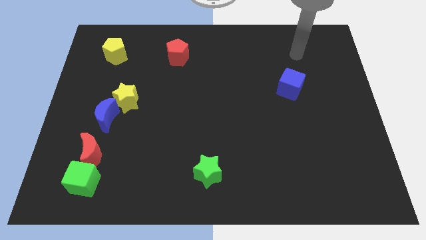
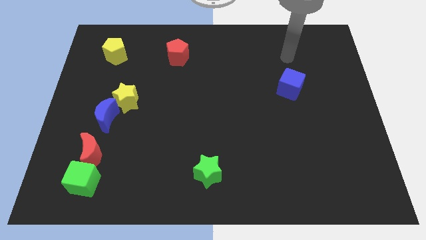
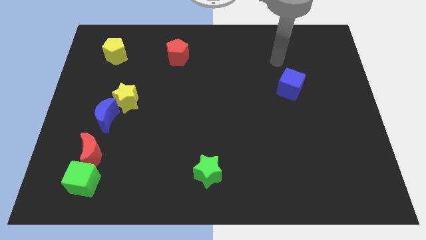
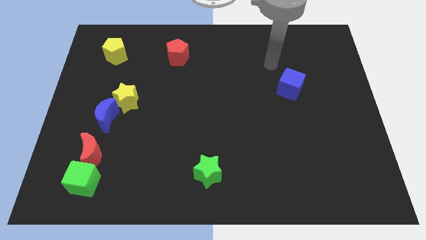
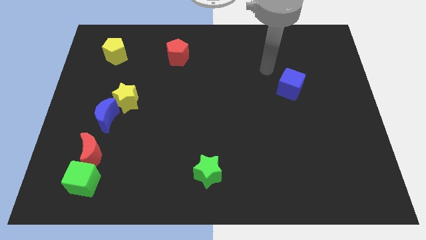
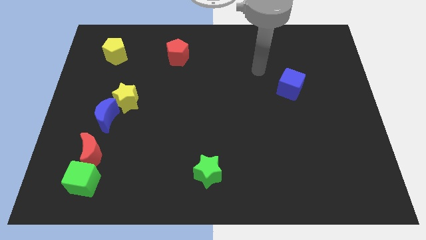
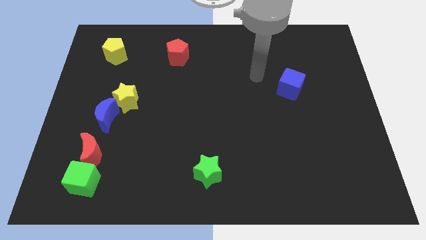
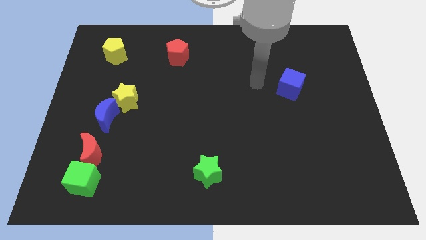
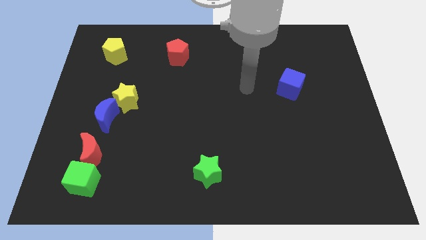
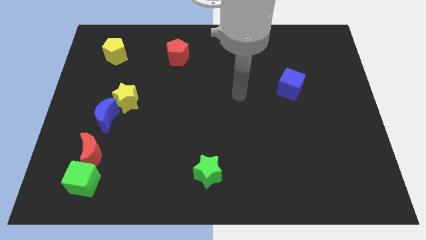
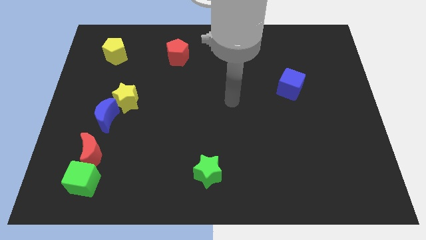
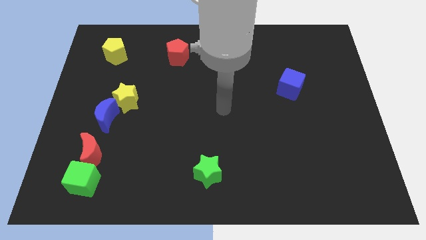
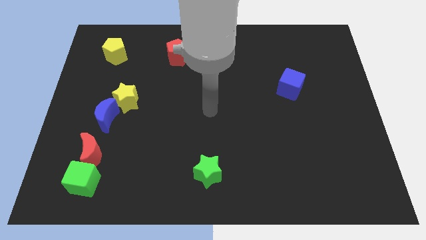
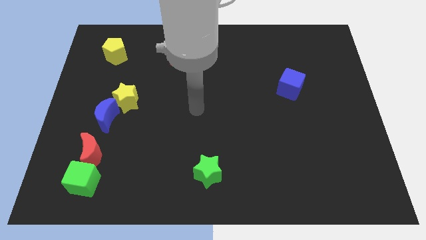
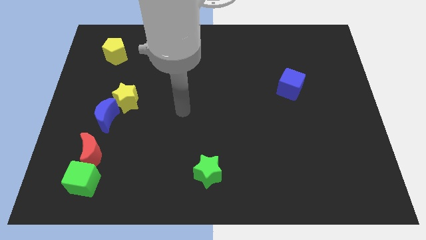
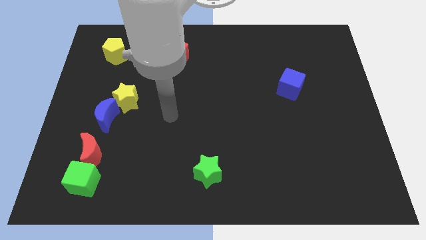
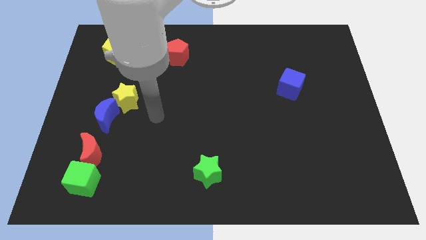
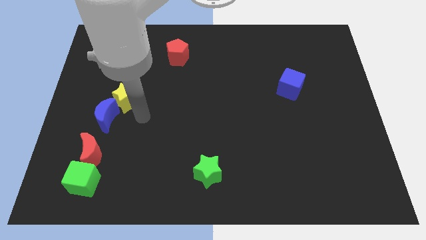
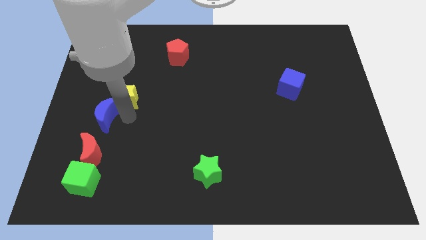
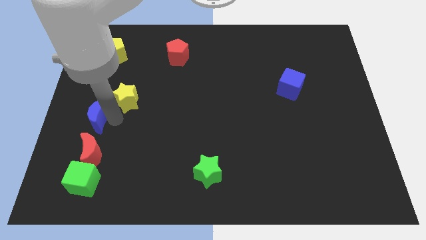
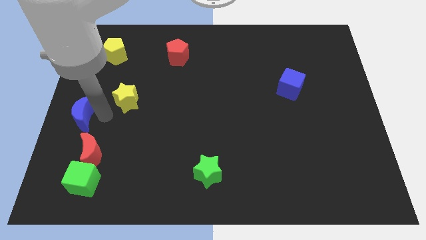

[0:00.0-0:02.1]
pull the yellow star apart from the blue moon

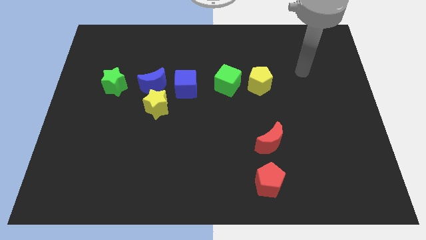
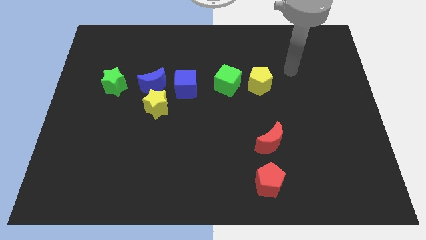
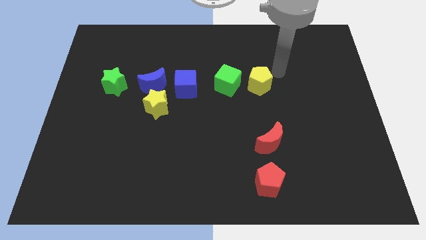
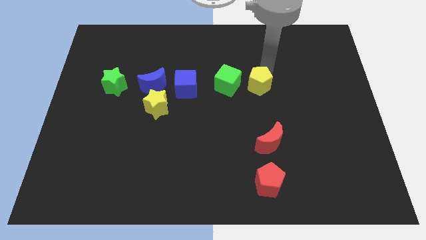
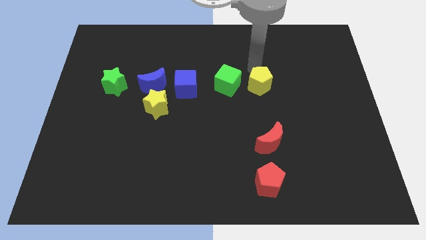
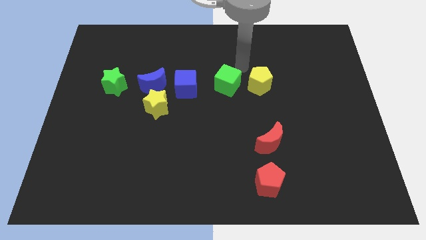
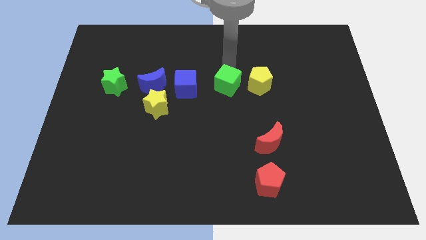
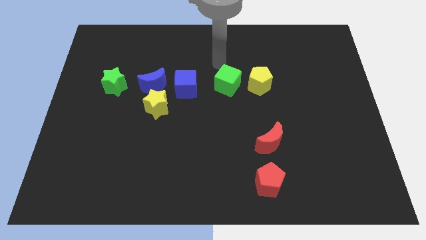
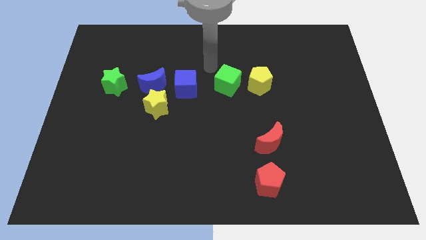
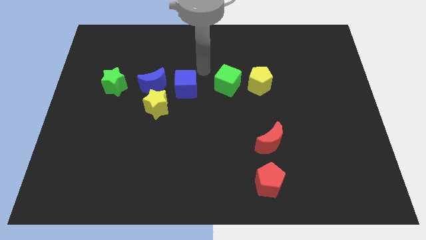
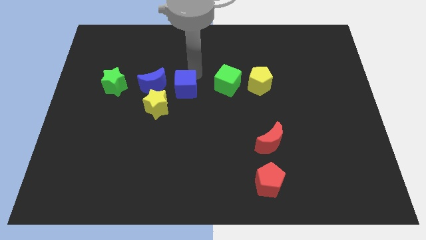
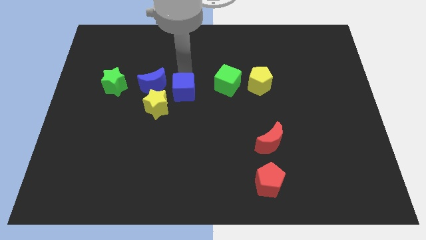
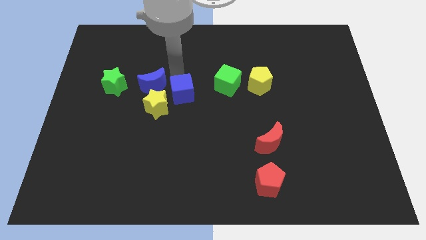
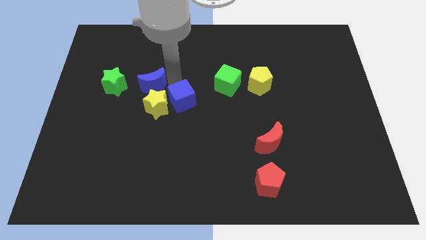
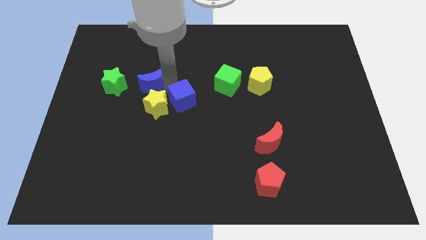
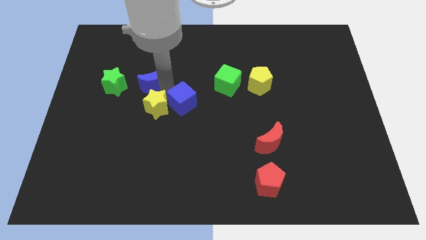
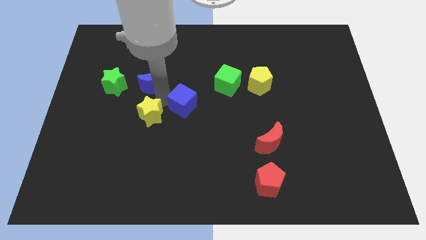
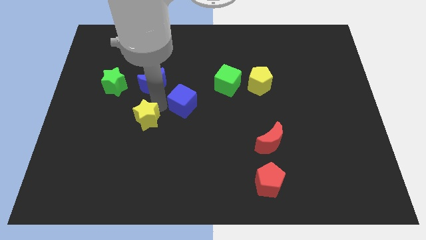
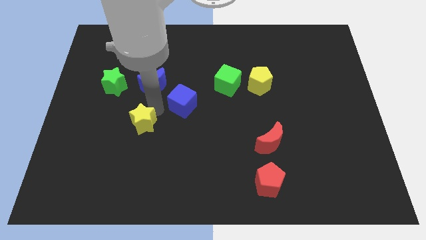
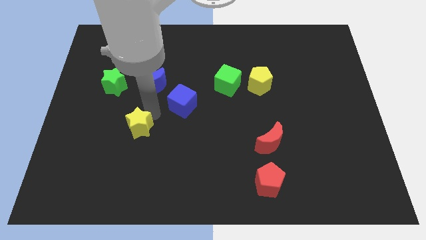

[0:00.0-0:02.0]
pull the yellow star apart from the blue moon and blue cube

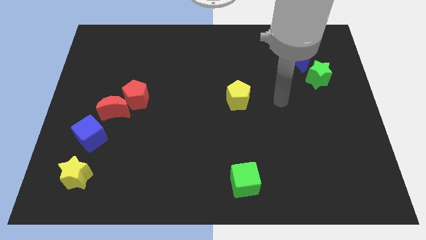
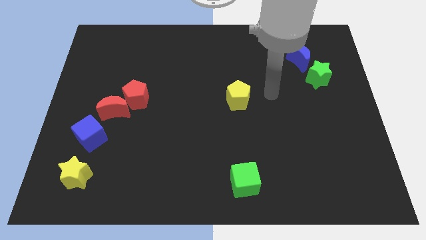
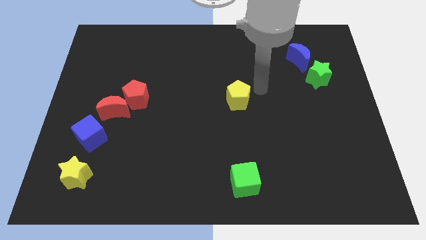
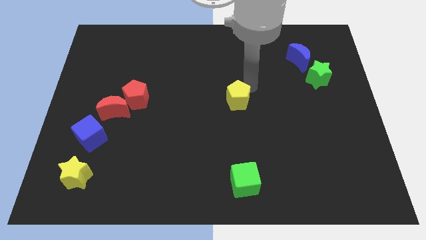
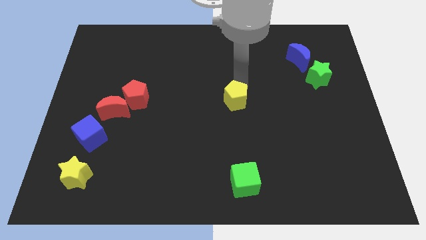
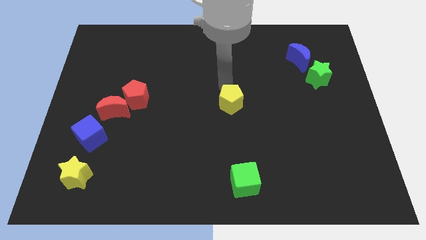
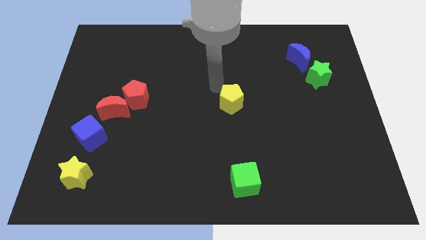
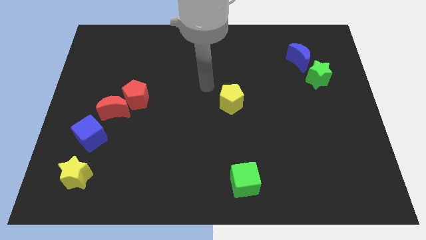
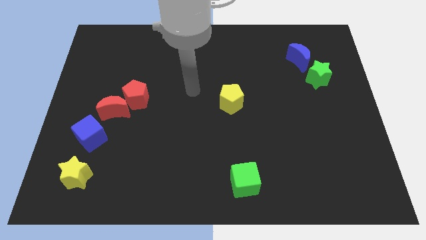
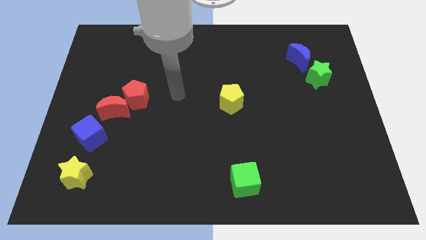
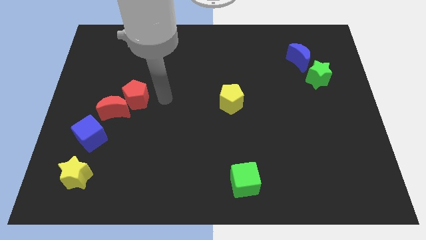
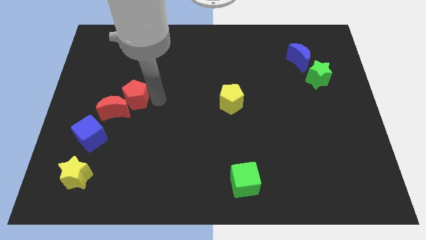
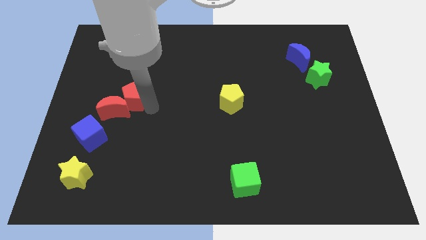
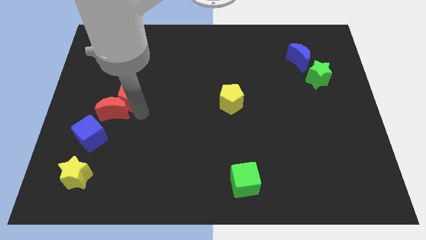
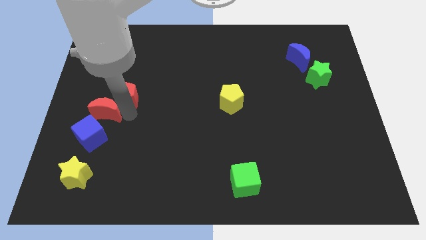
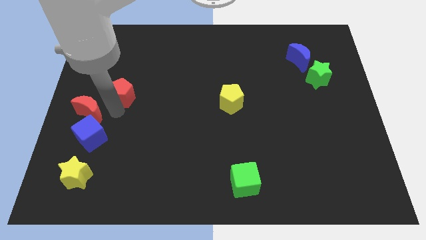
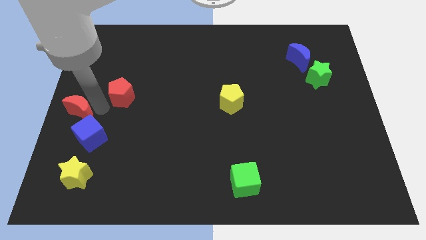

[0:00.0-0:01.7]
move the red pentagon away from the red moon

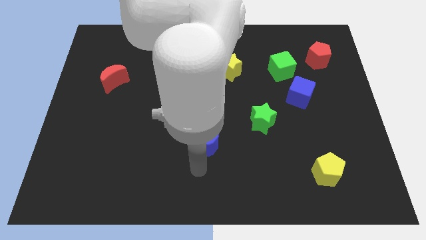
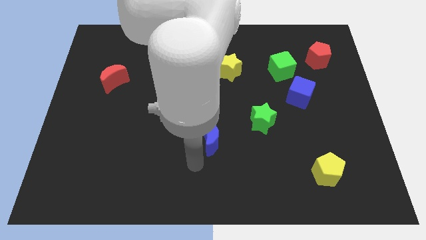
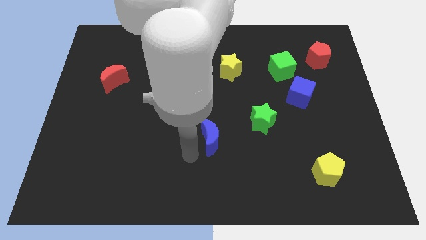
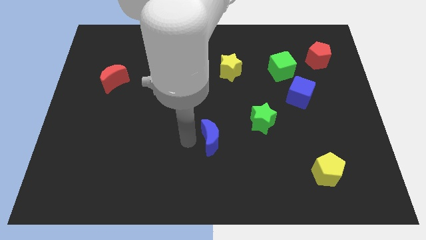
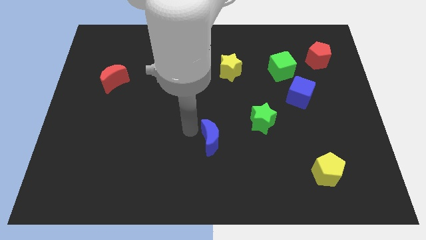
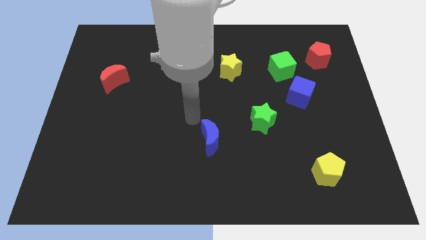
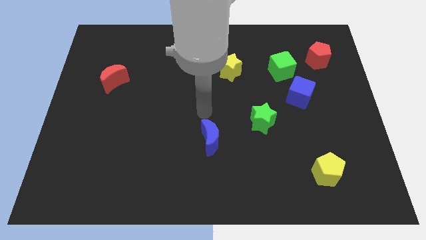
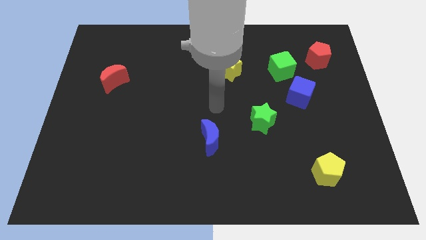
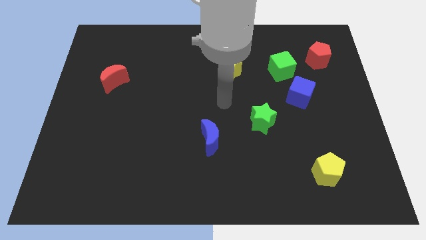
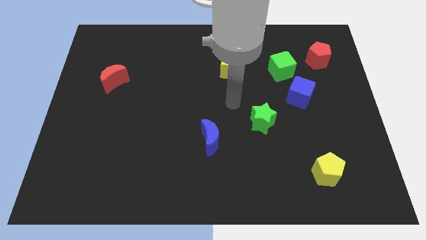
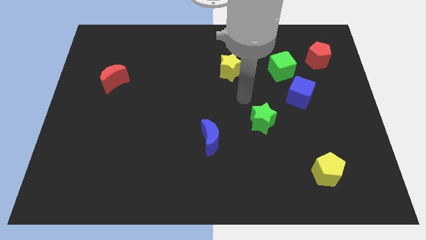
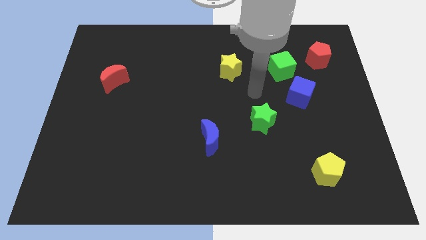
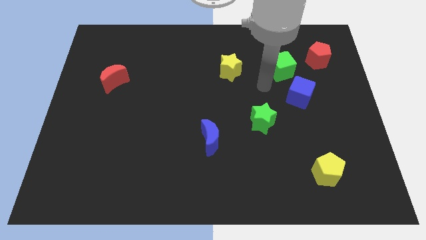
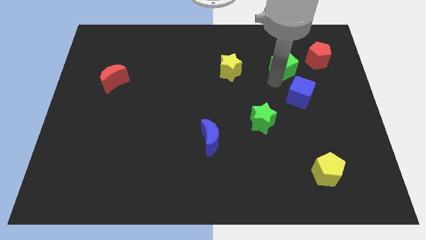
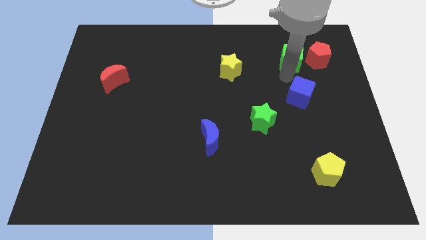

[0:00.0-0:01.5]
separate the blue cube from the green cube

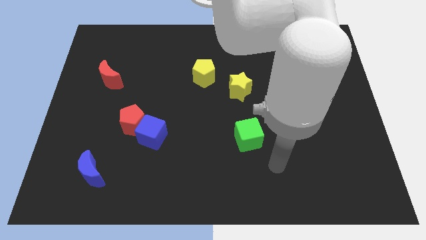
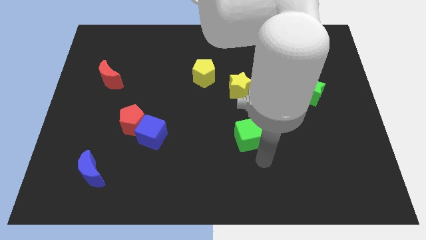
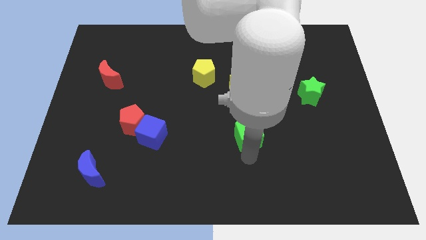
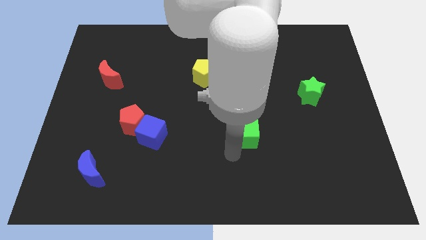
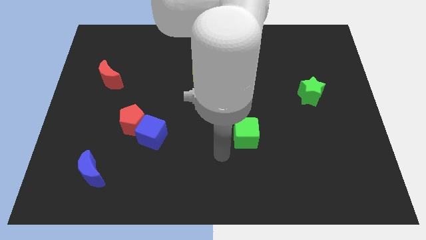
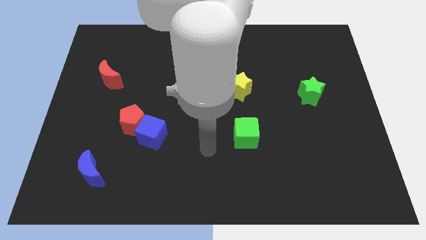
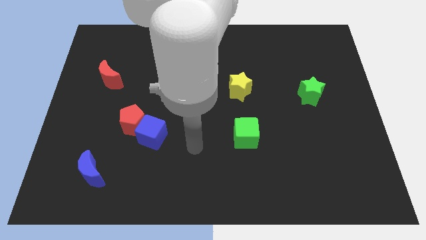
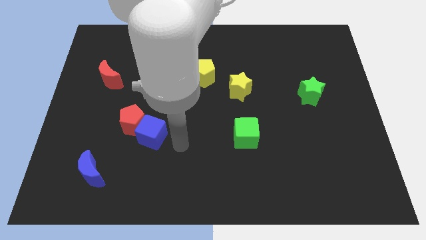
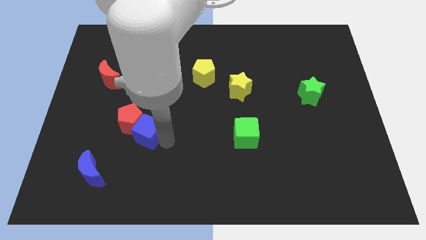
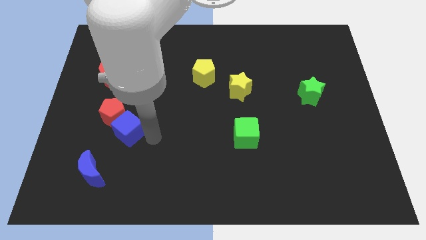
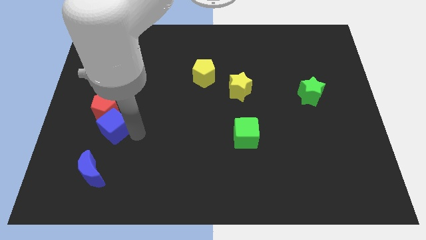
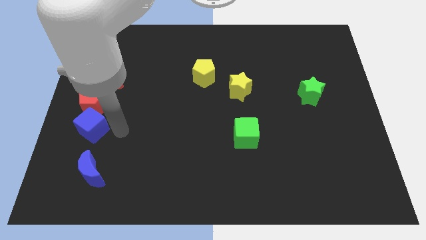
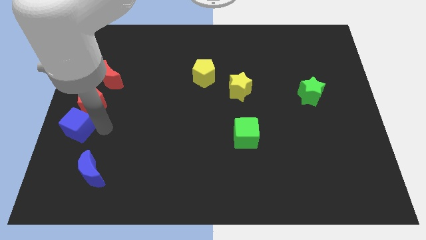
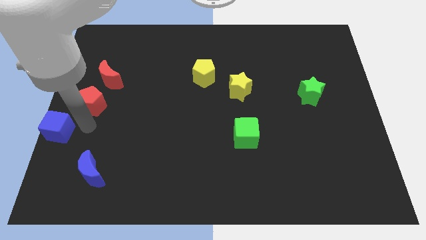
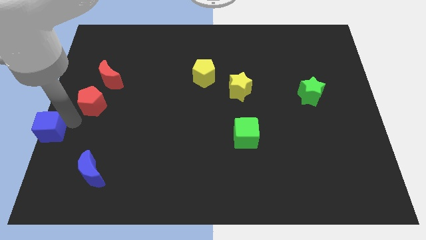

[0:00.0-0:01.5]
separate the red pentagon from the blue cube

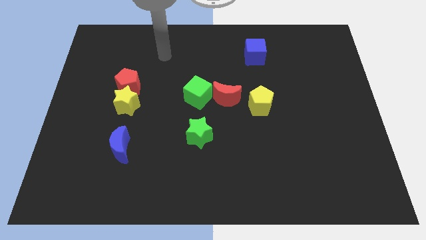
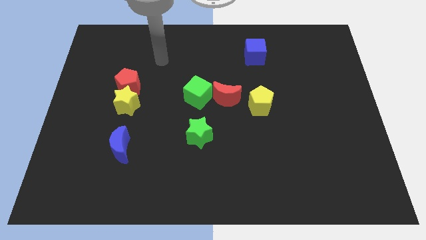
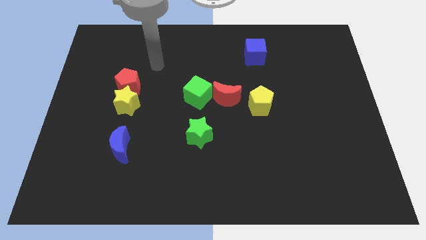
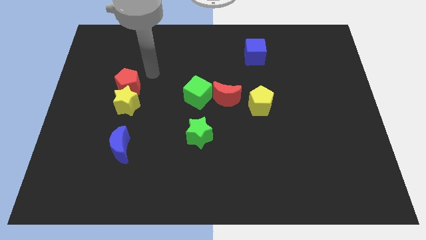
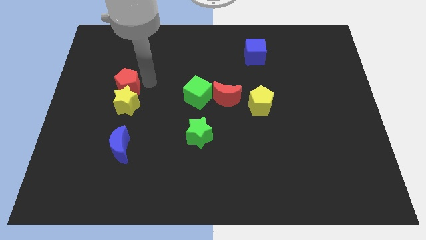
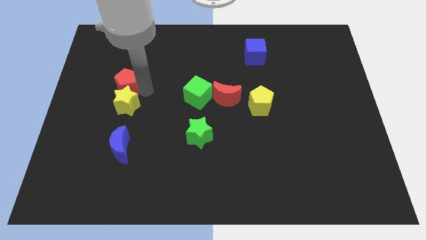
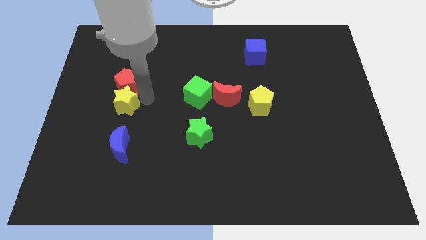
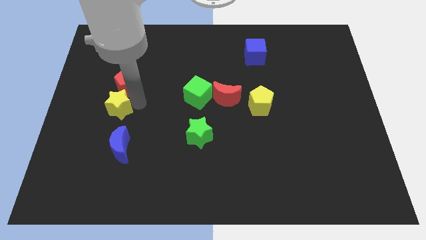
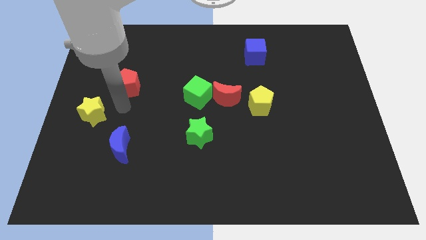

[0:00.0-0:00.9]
pull the red pentagon apart from the yellow star
